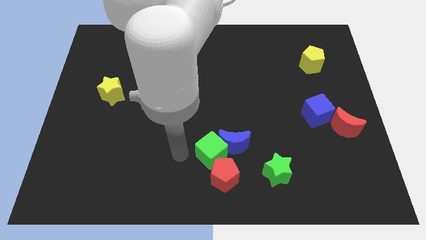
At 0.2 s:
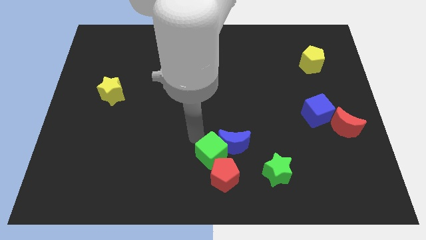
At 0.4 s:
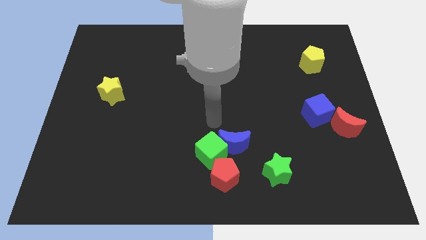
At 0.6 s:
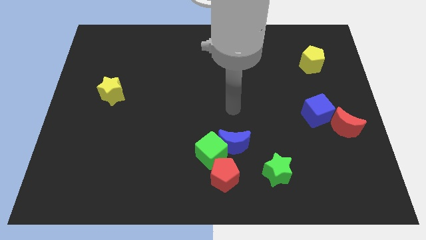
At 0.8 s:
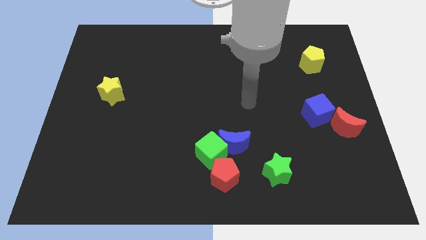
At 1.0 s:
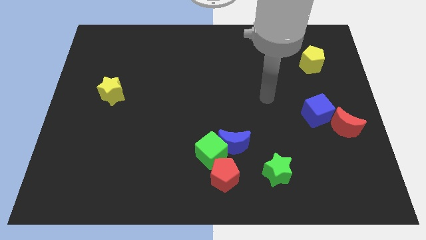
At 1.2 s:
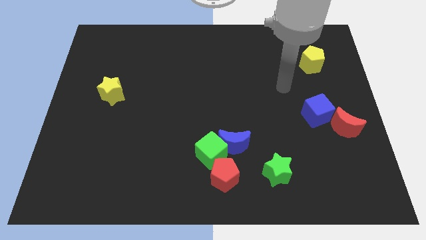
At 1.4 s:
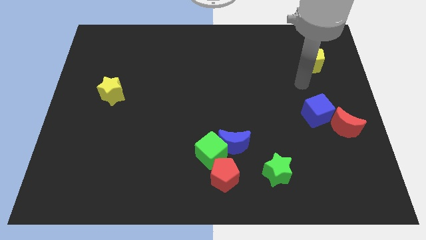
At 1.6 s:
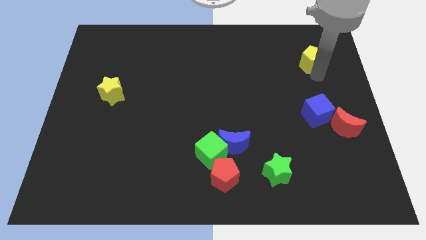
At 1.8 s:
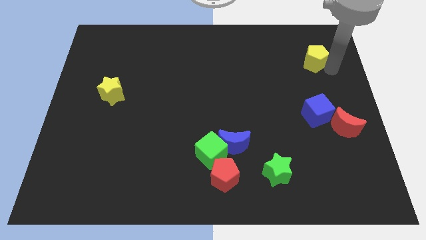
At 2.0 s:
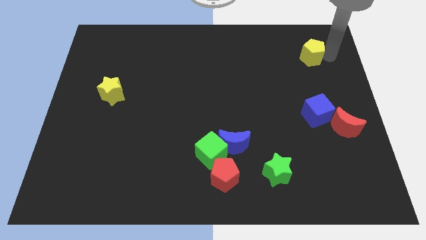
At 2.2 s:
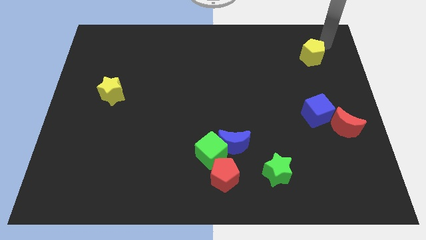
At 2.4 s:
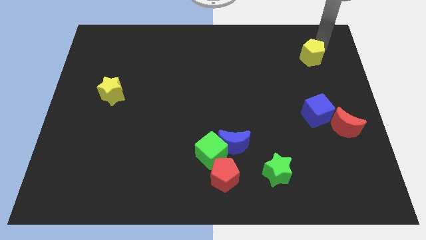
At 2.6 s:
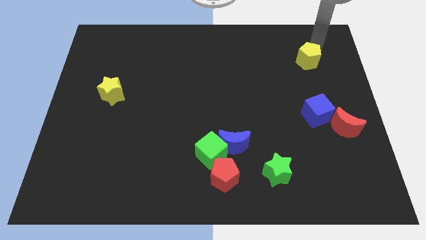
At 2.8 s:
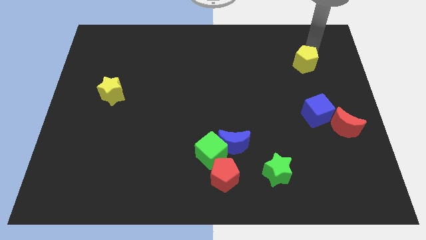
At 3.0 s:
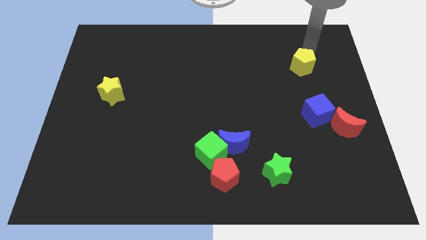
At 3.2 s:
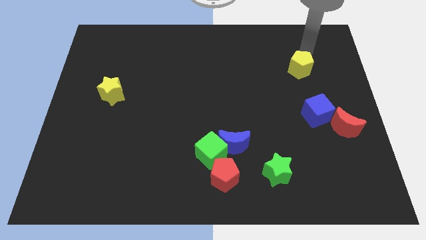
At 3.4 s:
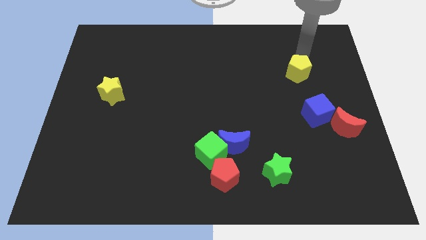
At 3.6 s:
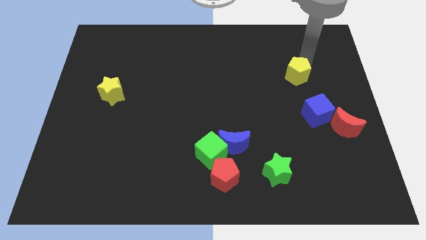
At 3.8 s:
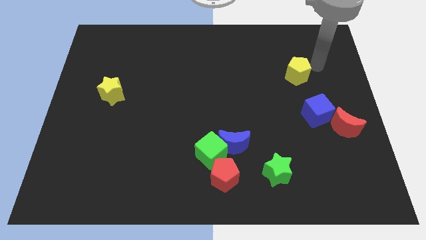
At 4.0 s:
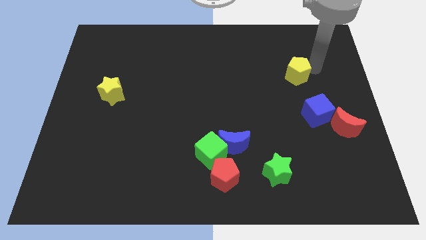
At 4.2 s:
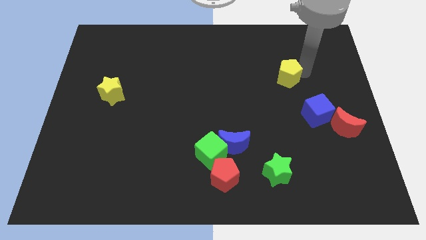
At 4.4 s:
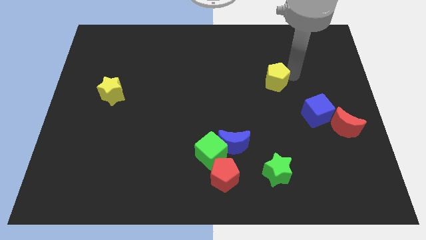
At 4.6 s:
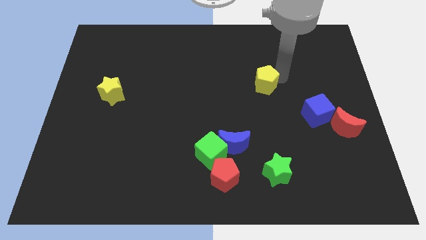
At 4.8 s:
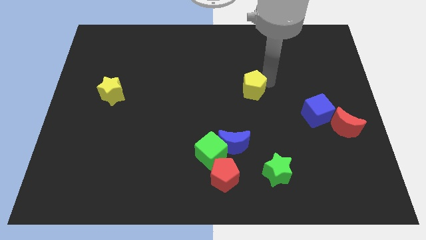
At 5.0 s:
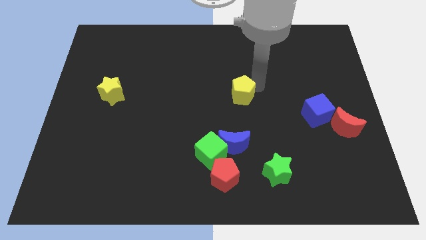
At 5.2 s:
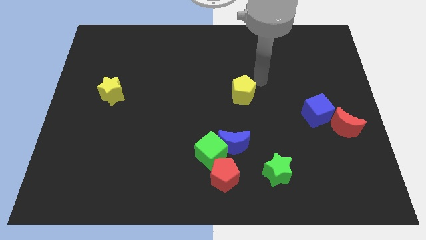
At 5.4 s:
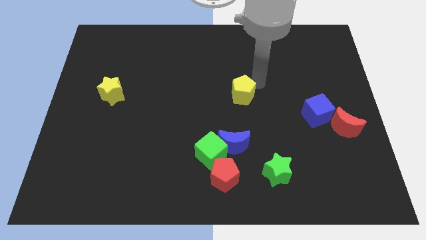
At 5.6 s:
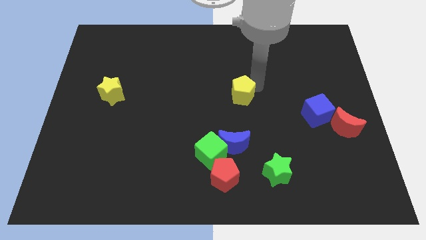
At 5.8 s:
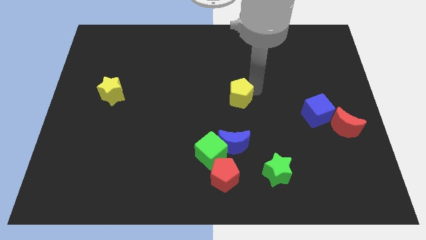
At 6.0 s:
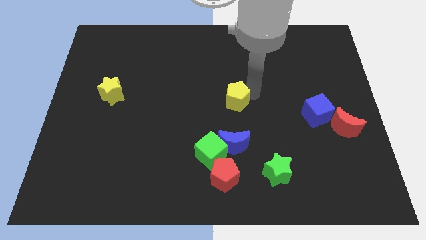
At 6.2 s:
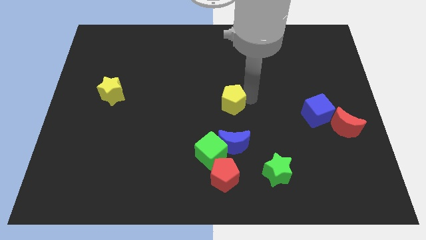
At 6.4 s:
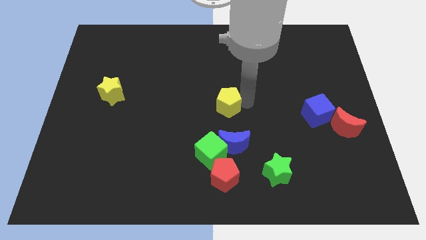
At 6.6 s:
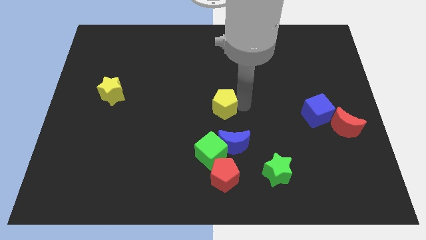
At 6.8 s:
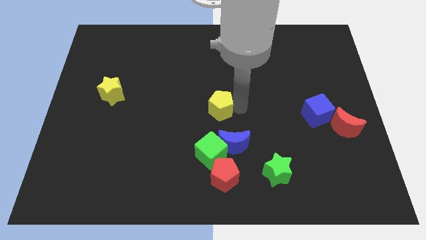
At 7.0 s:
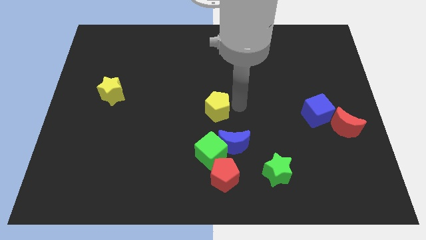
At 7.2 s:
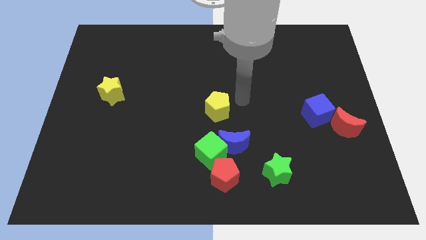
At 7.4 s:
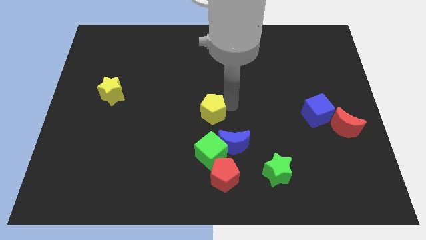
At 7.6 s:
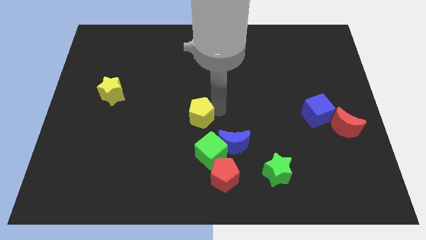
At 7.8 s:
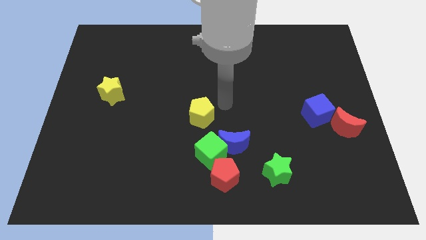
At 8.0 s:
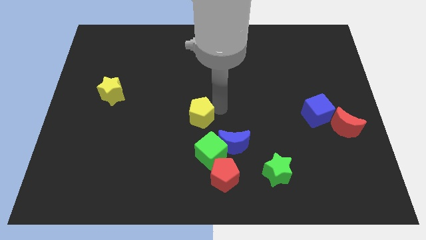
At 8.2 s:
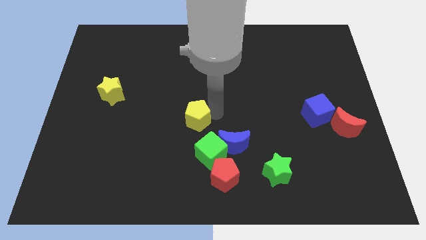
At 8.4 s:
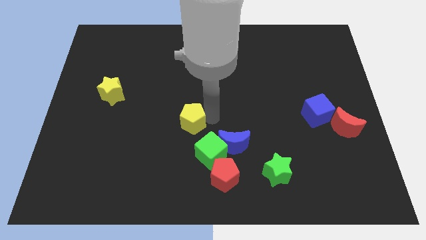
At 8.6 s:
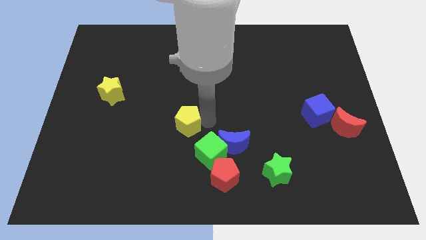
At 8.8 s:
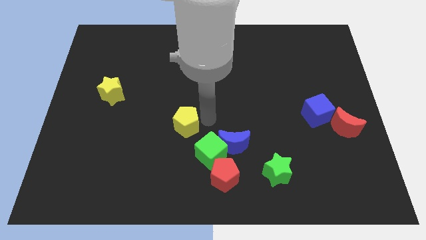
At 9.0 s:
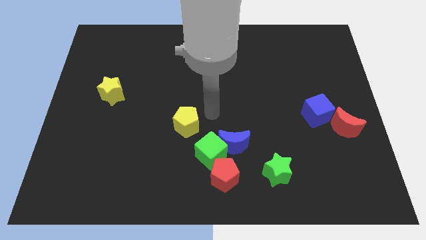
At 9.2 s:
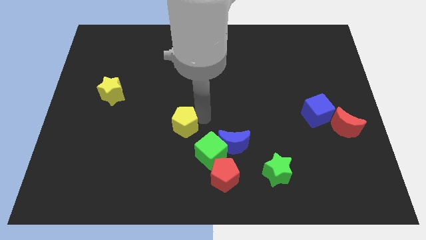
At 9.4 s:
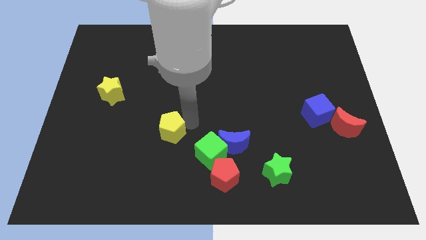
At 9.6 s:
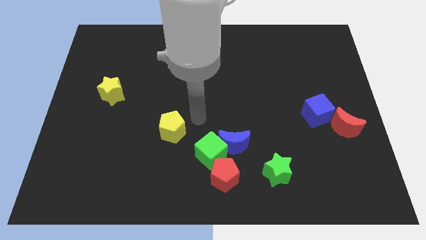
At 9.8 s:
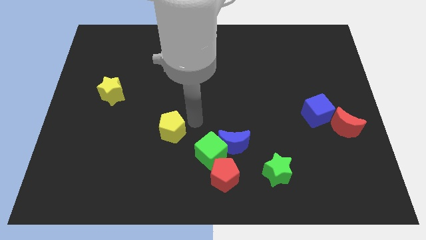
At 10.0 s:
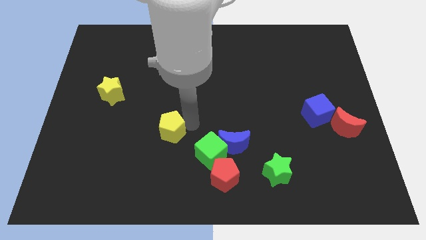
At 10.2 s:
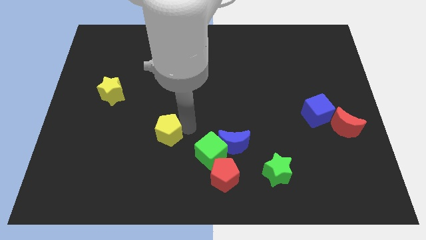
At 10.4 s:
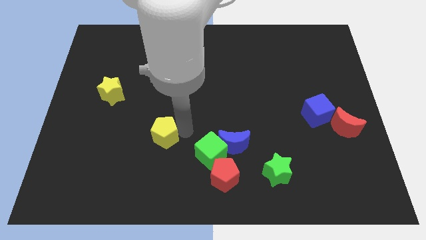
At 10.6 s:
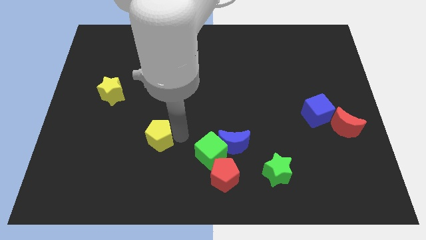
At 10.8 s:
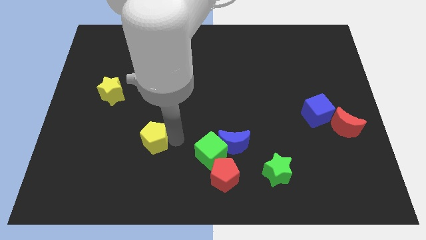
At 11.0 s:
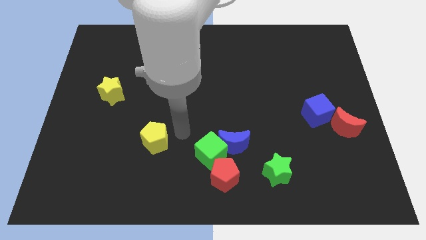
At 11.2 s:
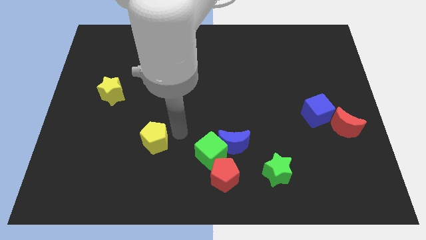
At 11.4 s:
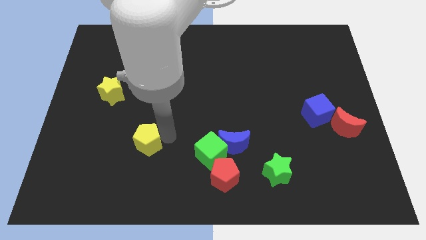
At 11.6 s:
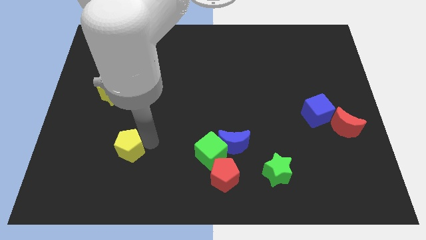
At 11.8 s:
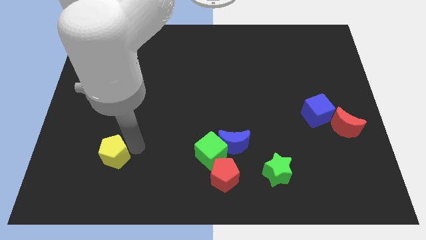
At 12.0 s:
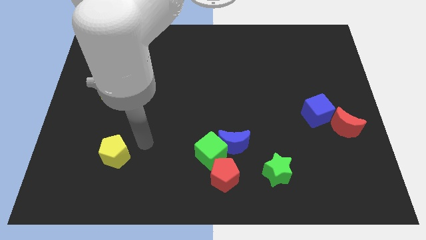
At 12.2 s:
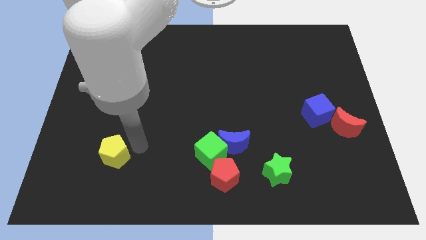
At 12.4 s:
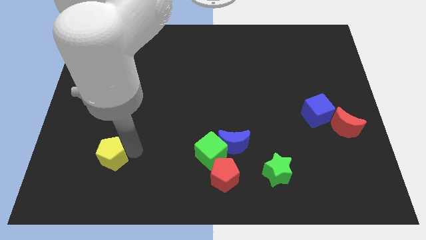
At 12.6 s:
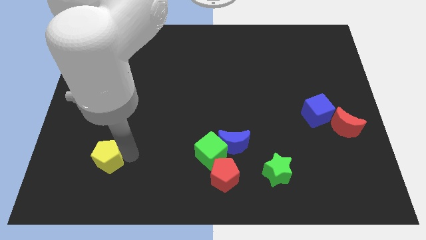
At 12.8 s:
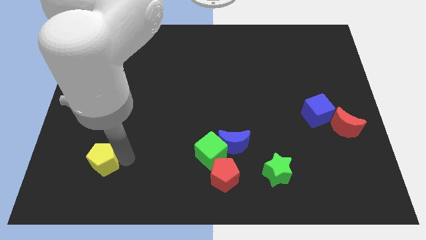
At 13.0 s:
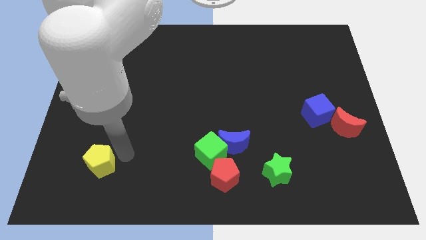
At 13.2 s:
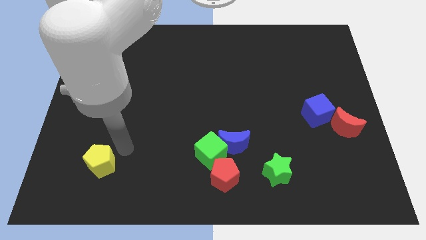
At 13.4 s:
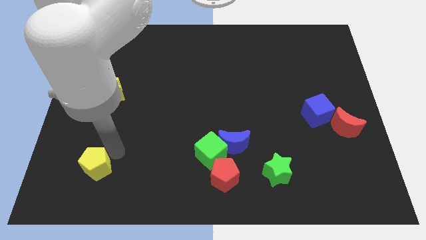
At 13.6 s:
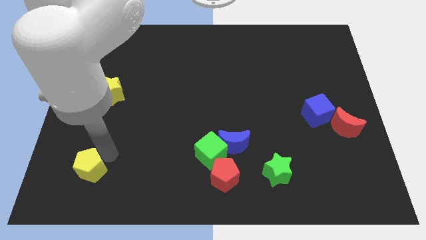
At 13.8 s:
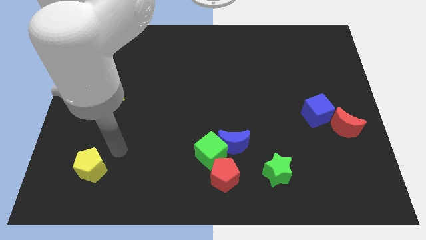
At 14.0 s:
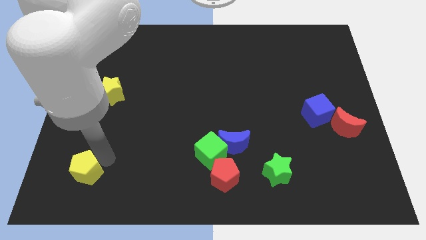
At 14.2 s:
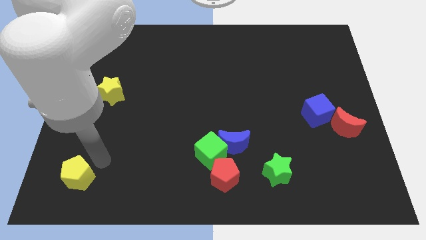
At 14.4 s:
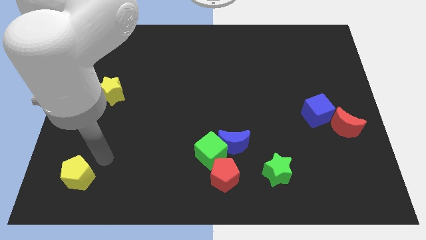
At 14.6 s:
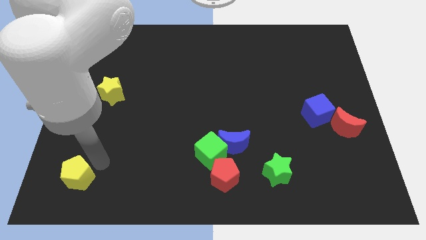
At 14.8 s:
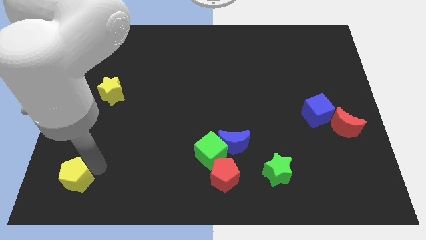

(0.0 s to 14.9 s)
slide the yellow pentagon to the bottom left corner

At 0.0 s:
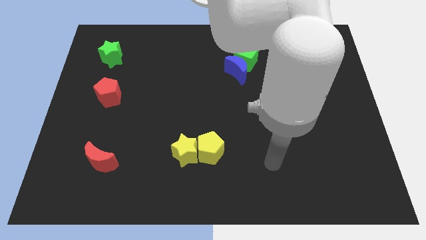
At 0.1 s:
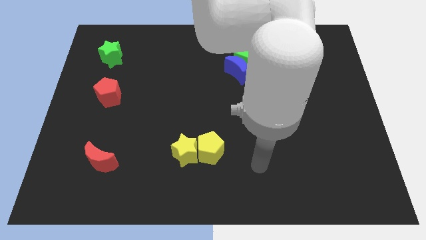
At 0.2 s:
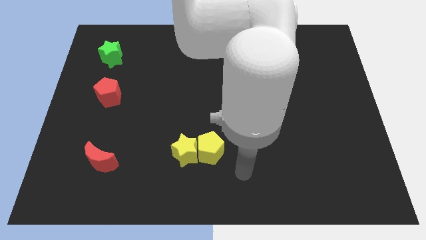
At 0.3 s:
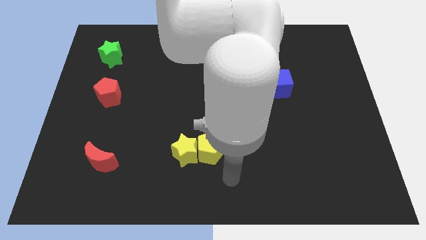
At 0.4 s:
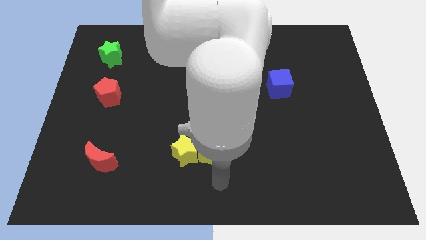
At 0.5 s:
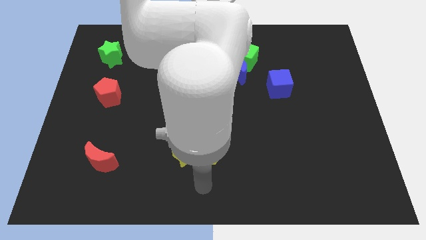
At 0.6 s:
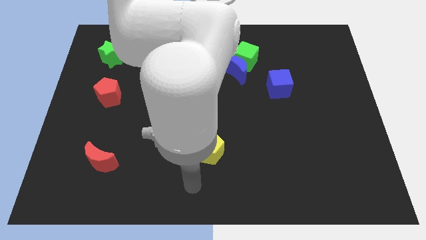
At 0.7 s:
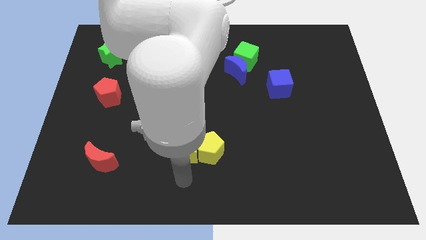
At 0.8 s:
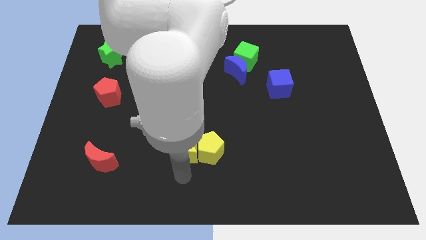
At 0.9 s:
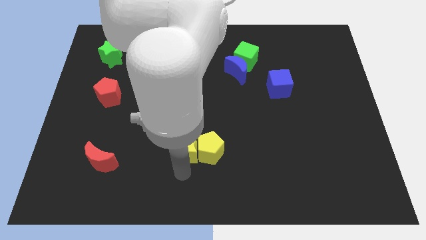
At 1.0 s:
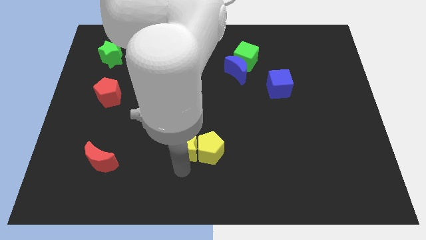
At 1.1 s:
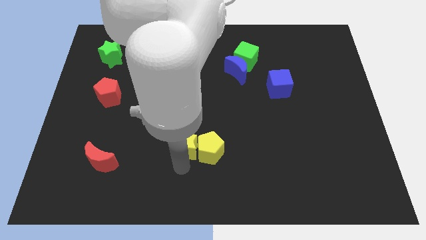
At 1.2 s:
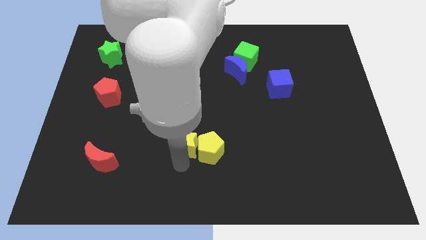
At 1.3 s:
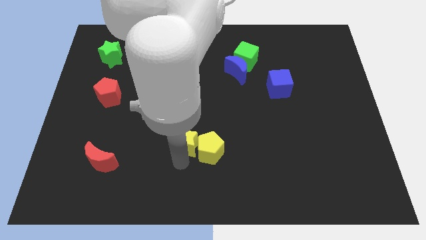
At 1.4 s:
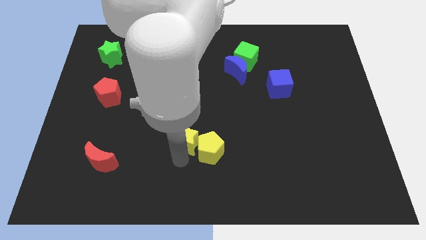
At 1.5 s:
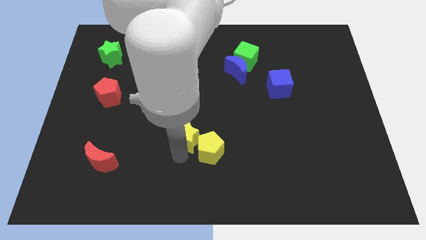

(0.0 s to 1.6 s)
slide the yellow star to the center
